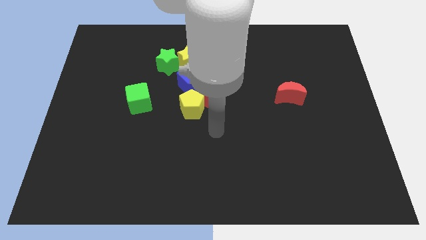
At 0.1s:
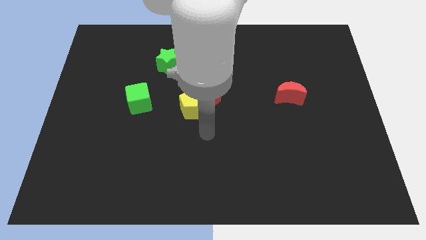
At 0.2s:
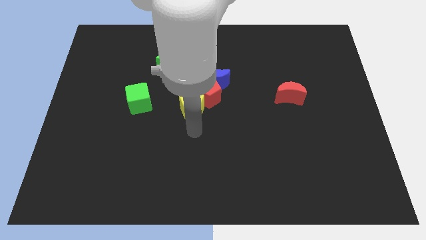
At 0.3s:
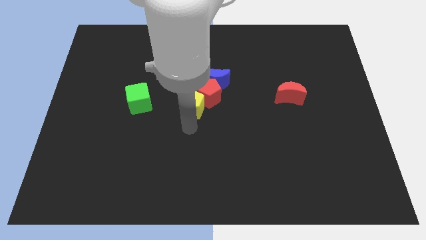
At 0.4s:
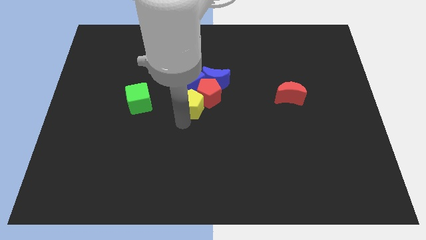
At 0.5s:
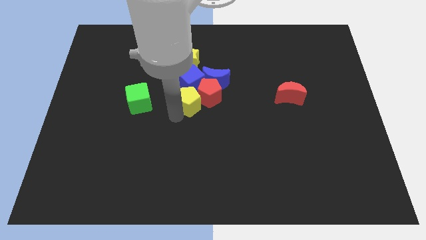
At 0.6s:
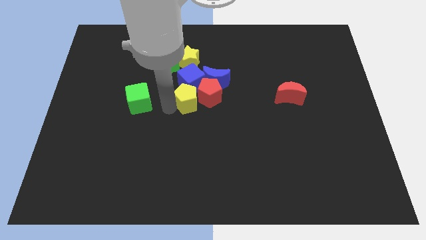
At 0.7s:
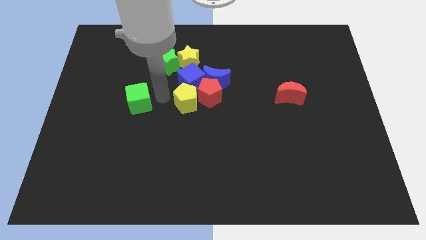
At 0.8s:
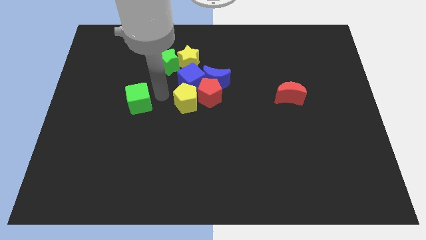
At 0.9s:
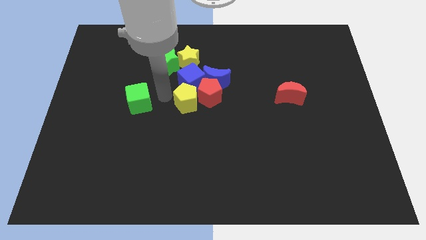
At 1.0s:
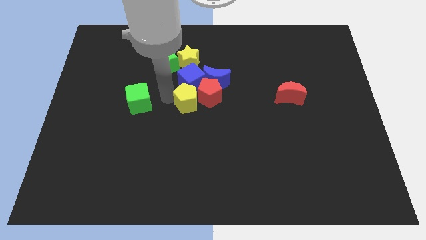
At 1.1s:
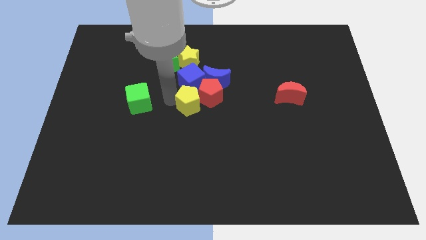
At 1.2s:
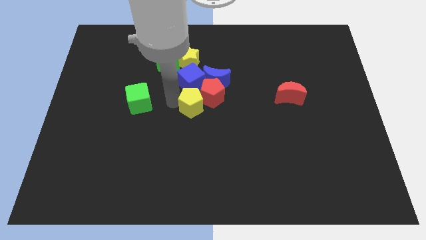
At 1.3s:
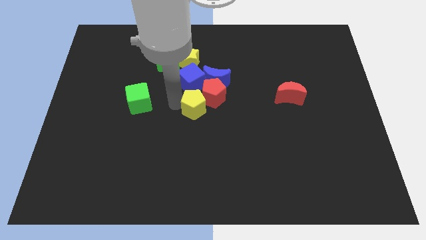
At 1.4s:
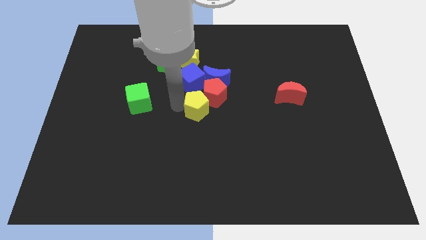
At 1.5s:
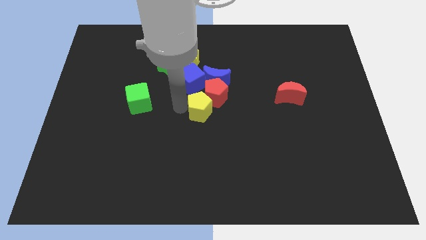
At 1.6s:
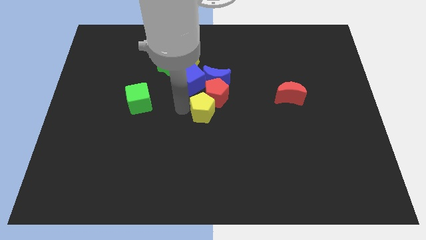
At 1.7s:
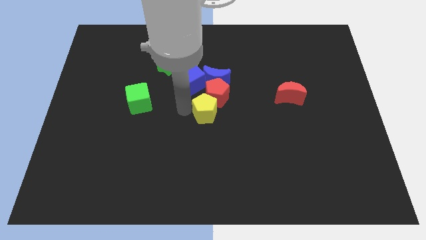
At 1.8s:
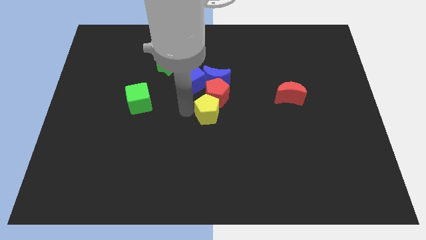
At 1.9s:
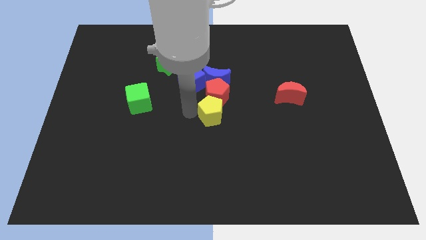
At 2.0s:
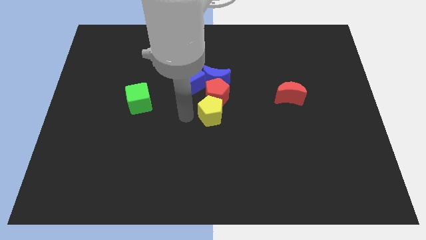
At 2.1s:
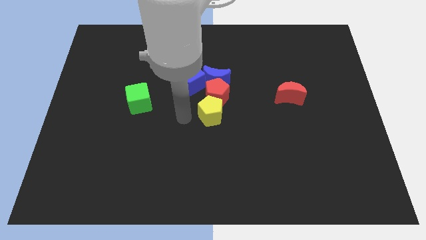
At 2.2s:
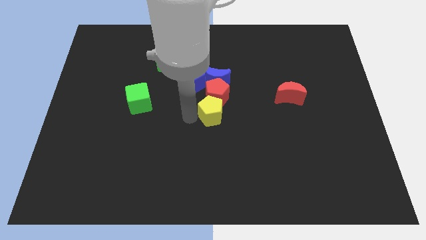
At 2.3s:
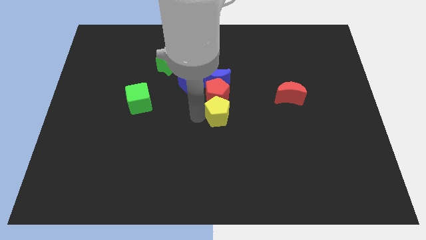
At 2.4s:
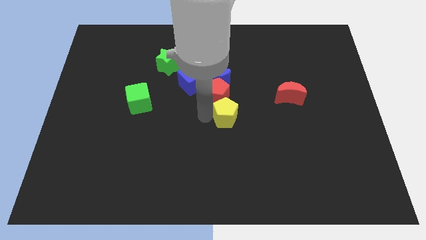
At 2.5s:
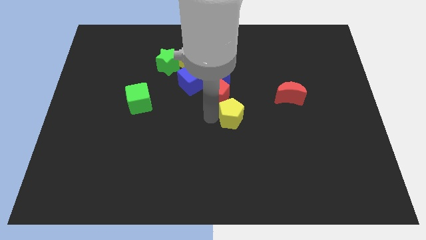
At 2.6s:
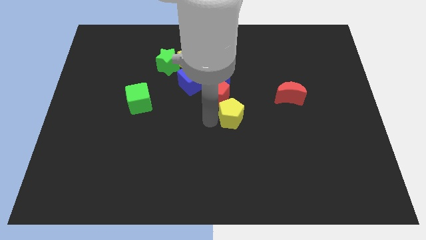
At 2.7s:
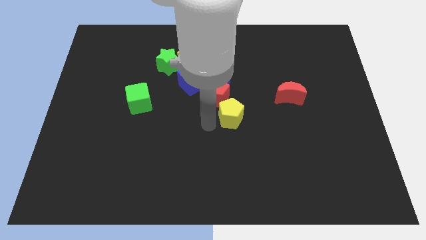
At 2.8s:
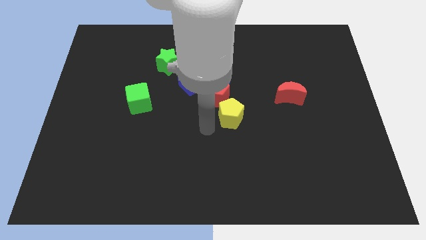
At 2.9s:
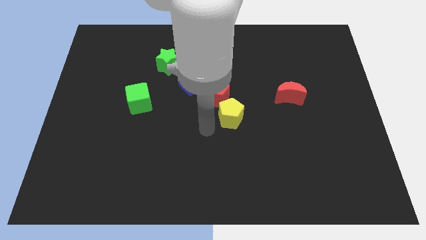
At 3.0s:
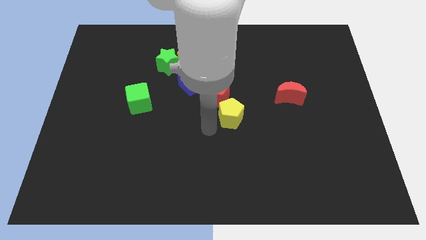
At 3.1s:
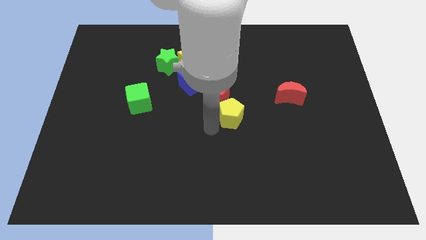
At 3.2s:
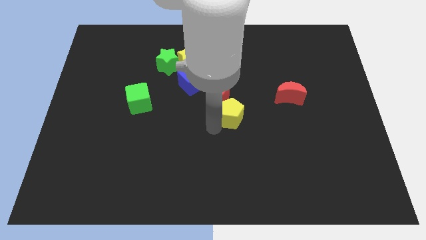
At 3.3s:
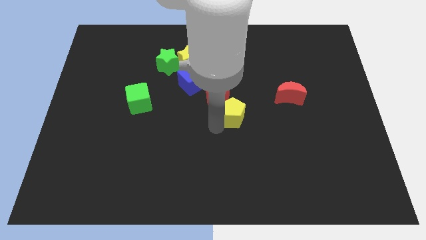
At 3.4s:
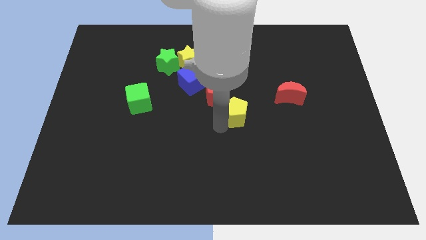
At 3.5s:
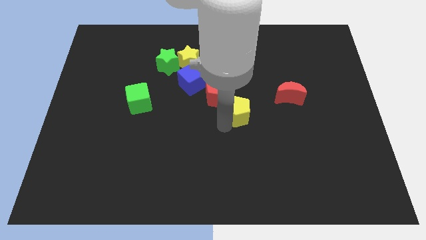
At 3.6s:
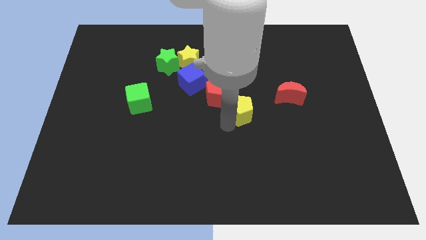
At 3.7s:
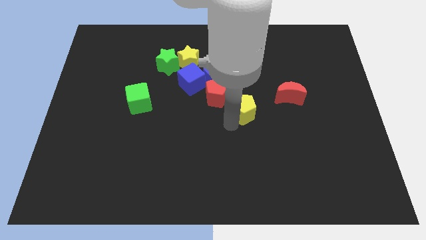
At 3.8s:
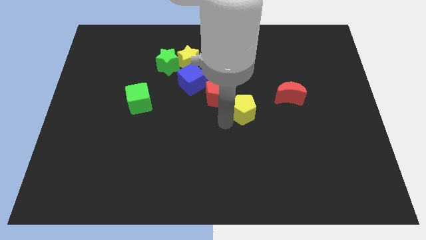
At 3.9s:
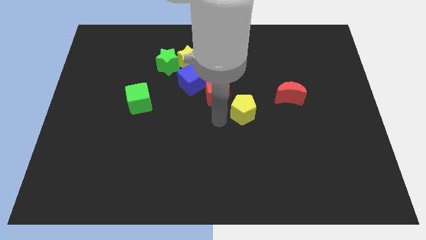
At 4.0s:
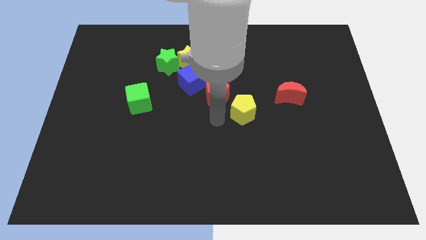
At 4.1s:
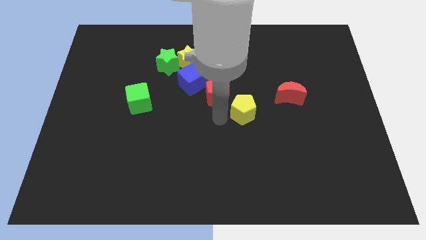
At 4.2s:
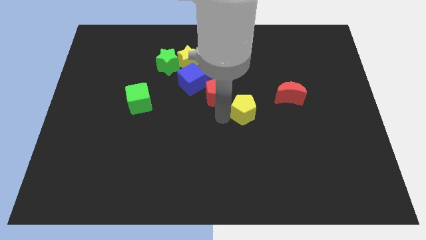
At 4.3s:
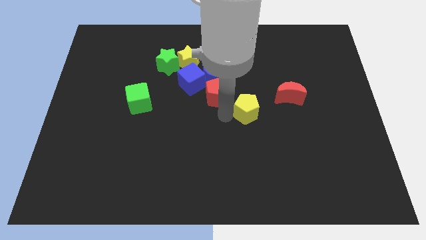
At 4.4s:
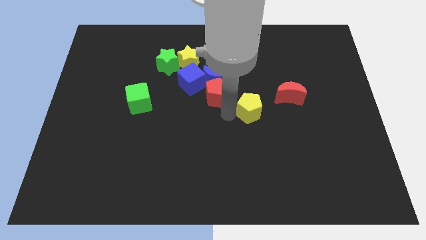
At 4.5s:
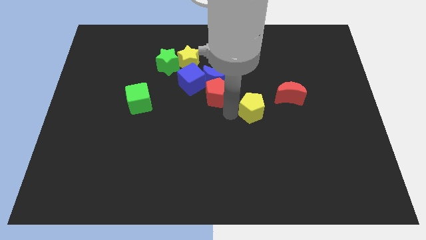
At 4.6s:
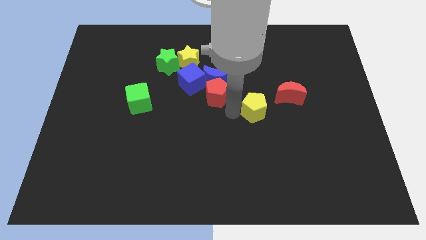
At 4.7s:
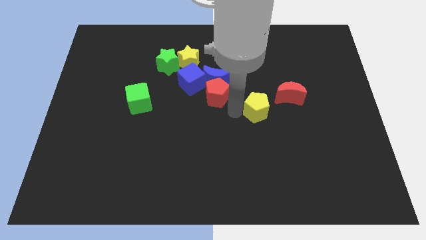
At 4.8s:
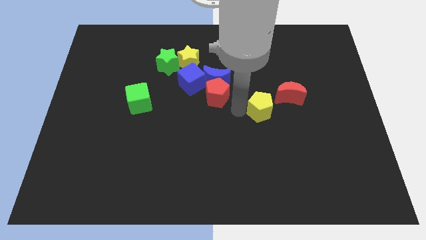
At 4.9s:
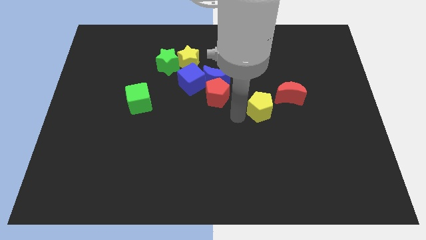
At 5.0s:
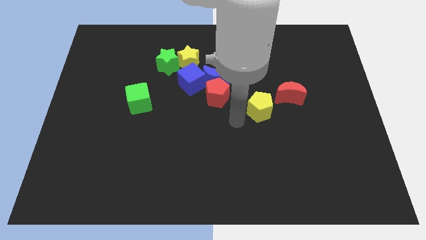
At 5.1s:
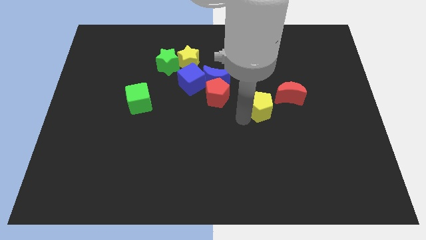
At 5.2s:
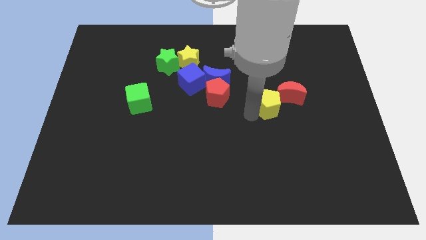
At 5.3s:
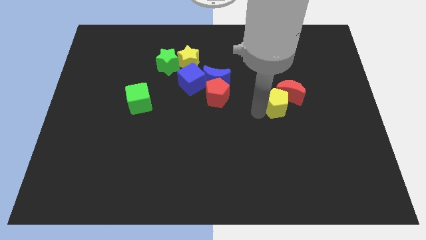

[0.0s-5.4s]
move the yellow pentagon close to the red moon

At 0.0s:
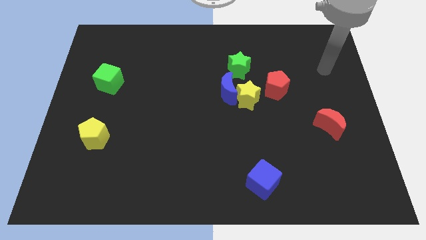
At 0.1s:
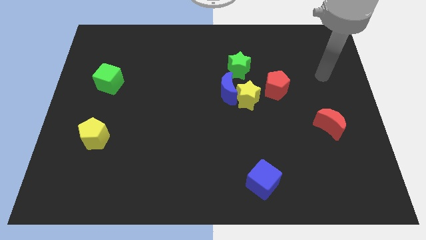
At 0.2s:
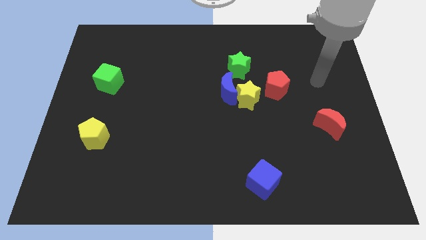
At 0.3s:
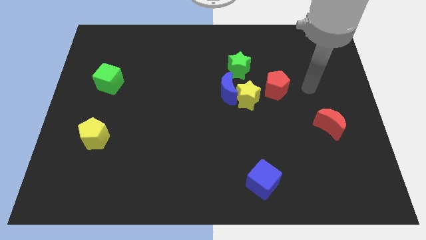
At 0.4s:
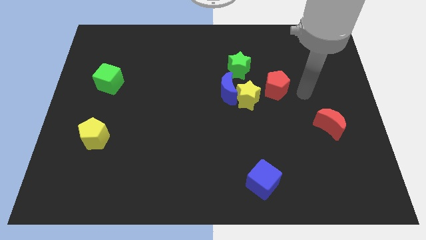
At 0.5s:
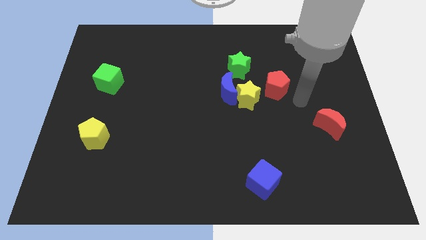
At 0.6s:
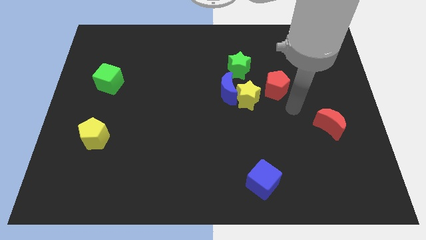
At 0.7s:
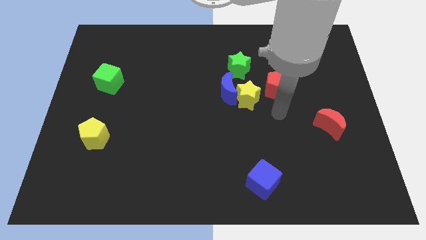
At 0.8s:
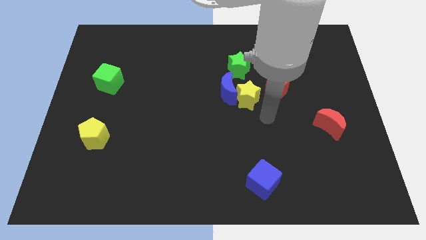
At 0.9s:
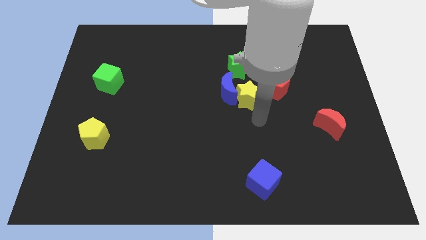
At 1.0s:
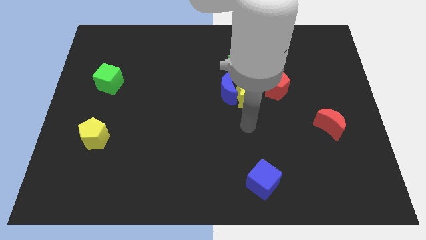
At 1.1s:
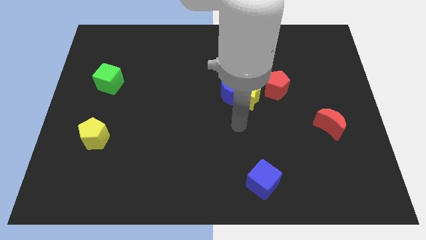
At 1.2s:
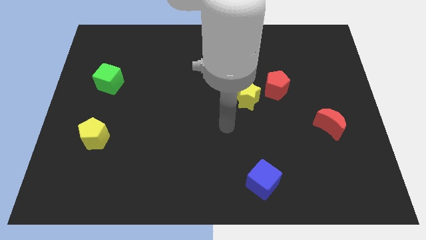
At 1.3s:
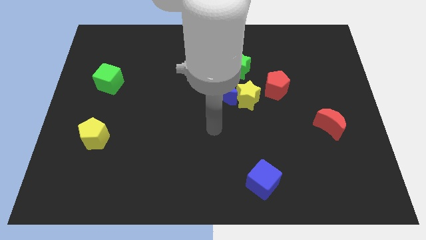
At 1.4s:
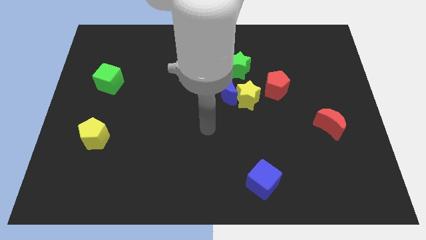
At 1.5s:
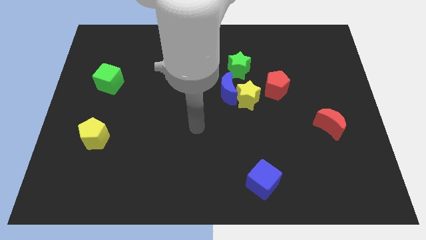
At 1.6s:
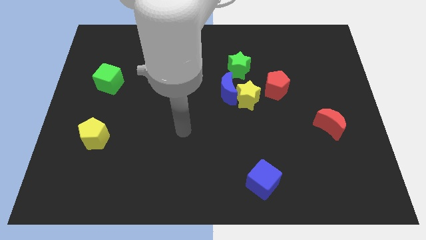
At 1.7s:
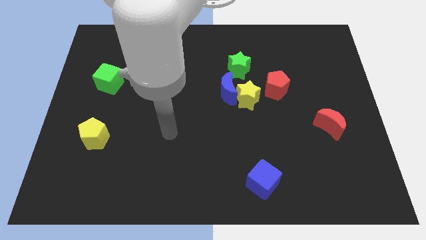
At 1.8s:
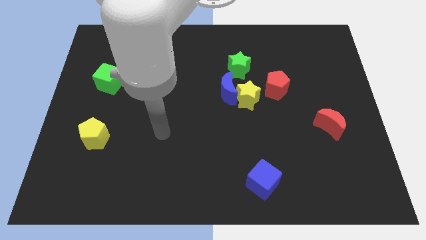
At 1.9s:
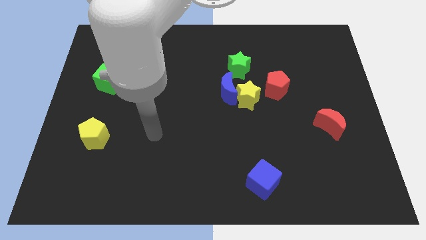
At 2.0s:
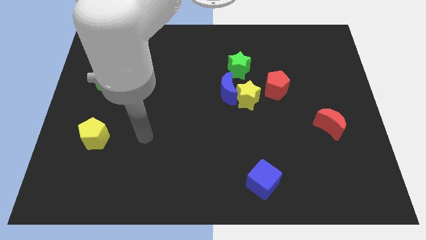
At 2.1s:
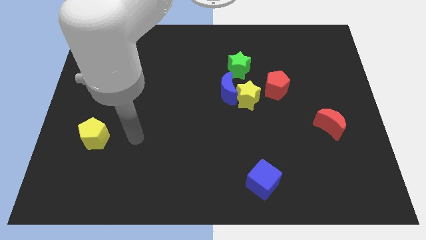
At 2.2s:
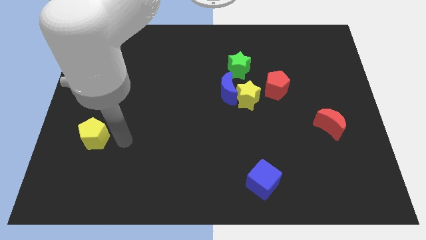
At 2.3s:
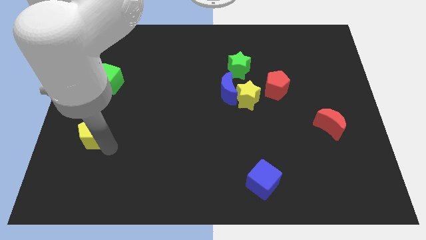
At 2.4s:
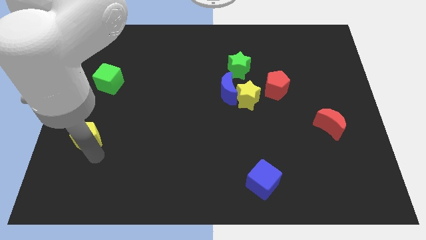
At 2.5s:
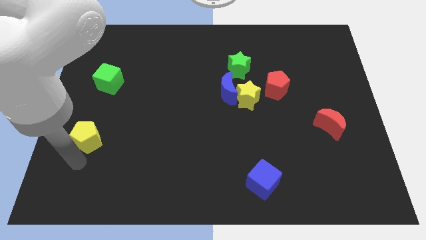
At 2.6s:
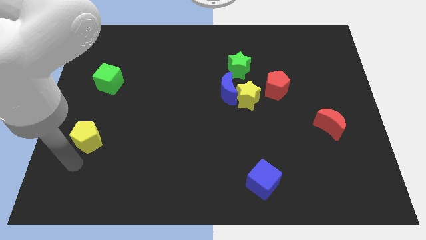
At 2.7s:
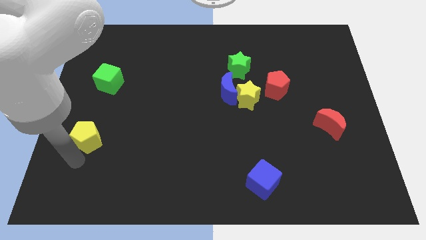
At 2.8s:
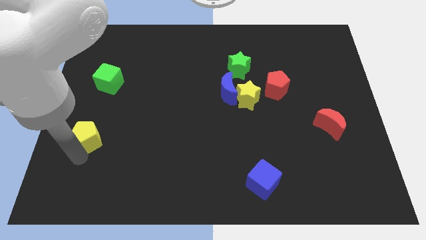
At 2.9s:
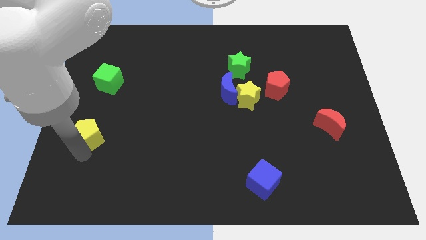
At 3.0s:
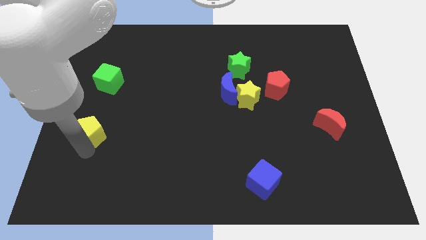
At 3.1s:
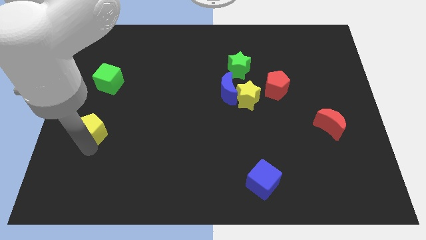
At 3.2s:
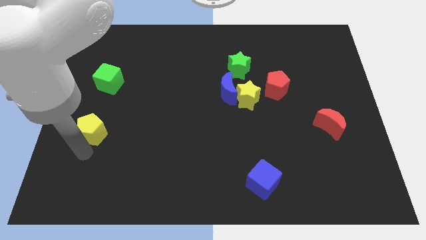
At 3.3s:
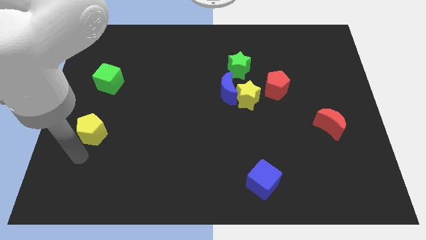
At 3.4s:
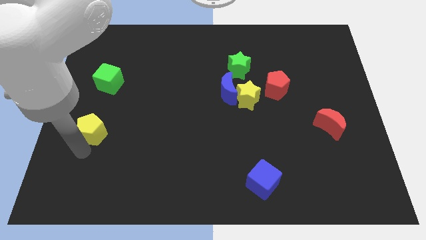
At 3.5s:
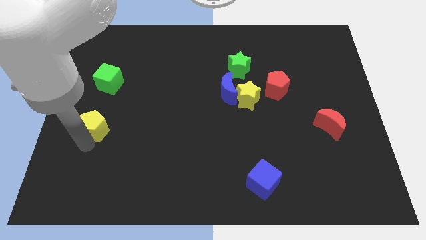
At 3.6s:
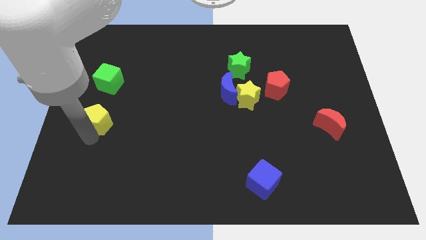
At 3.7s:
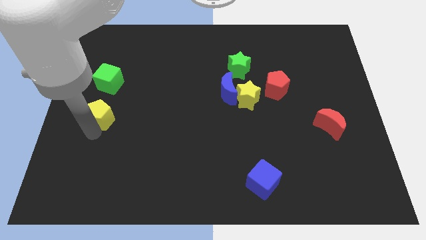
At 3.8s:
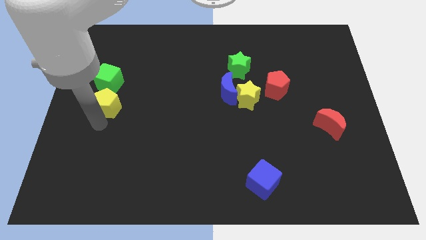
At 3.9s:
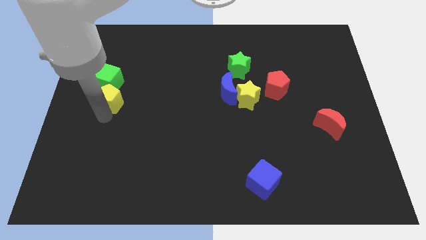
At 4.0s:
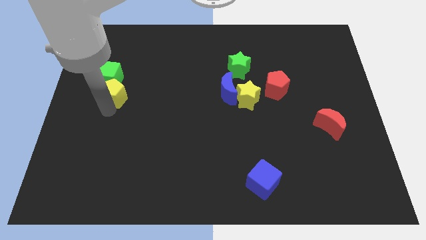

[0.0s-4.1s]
put the yellow pentagon next to the green cube
